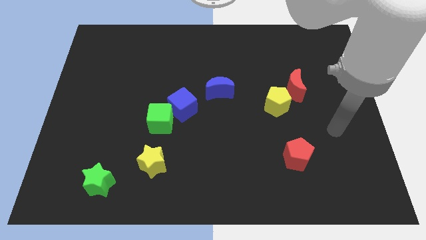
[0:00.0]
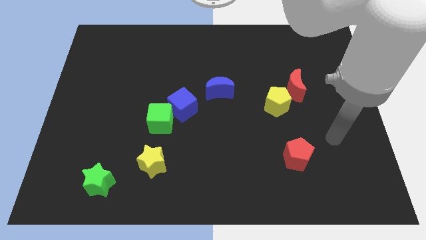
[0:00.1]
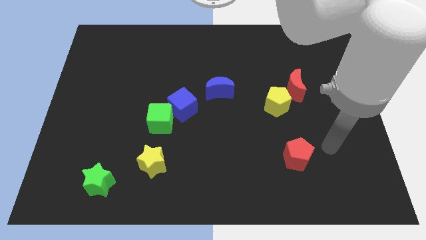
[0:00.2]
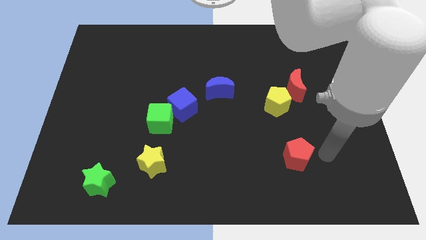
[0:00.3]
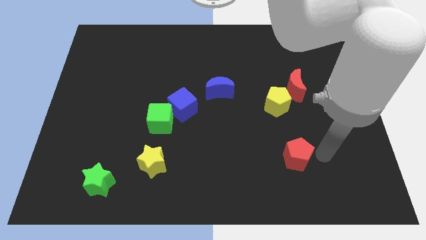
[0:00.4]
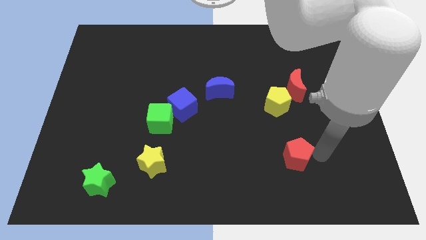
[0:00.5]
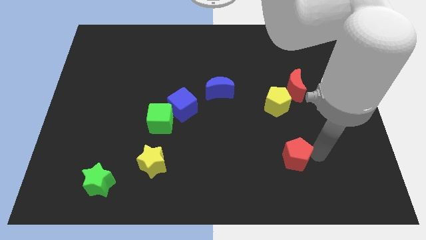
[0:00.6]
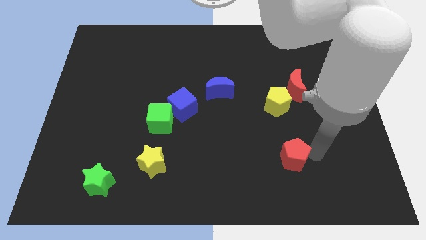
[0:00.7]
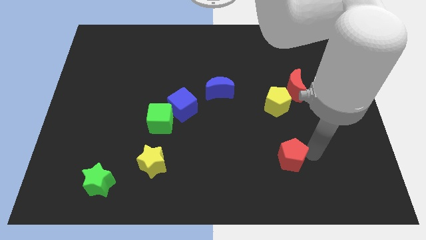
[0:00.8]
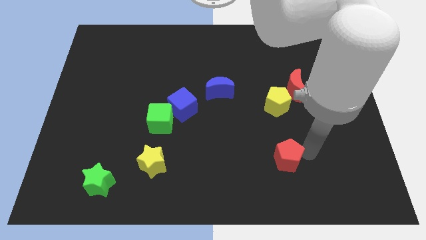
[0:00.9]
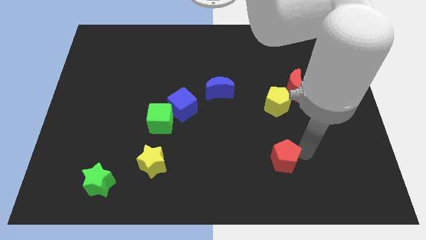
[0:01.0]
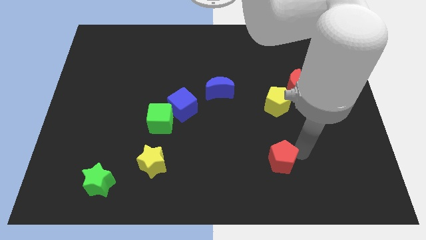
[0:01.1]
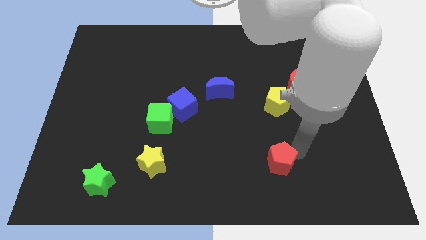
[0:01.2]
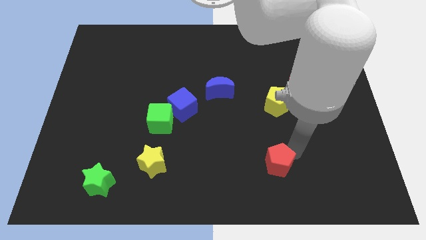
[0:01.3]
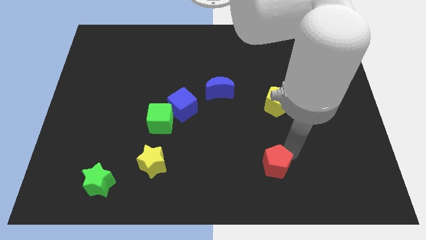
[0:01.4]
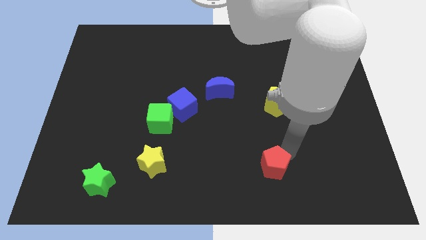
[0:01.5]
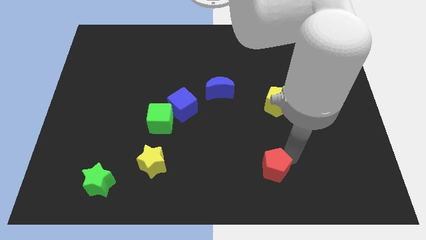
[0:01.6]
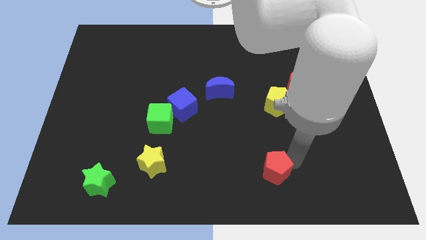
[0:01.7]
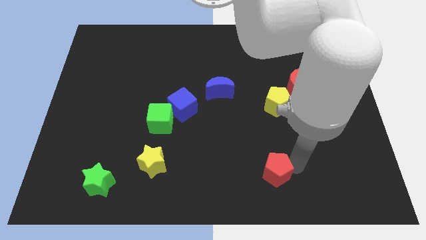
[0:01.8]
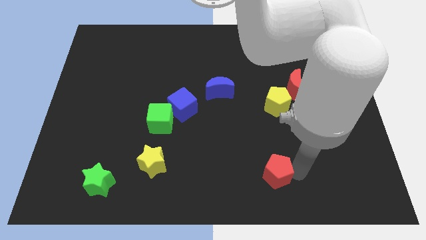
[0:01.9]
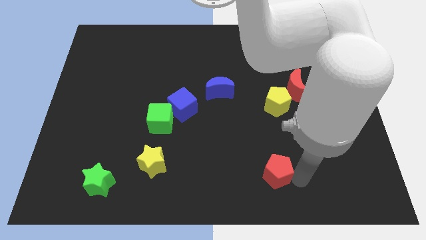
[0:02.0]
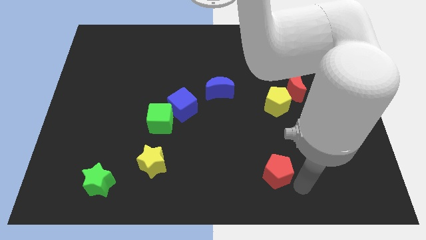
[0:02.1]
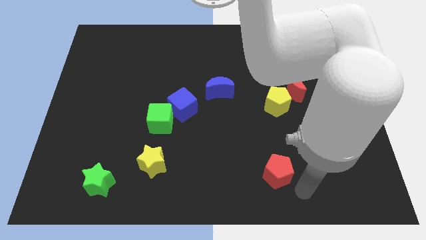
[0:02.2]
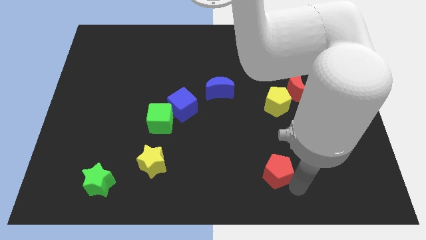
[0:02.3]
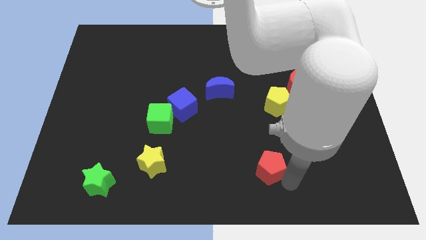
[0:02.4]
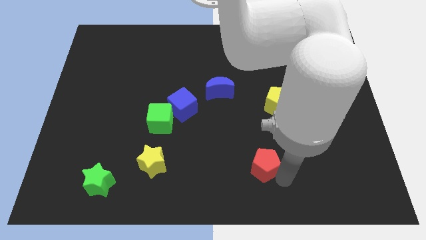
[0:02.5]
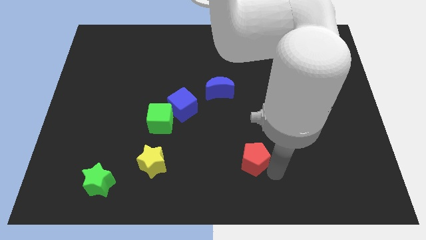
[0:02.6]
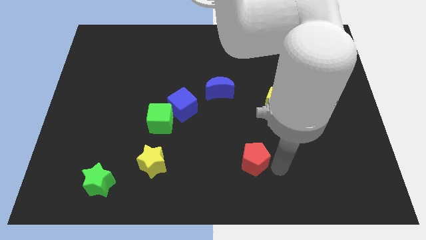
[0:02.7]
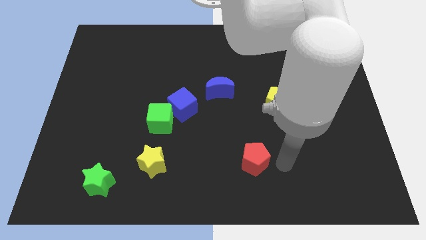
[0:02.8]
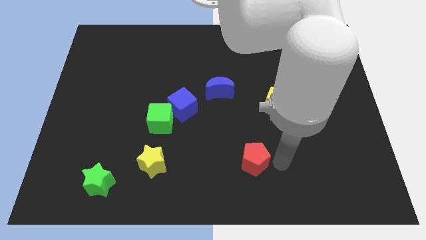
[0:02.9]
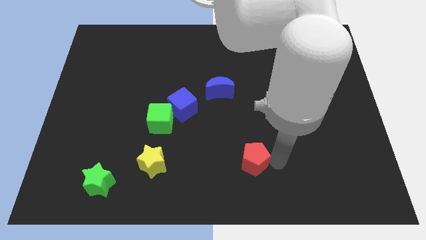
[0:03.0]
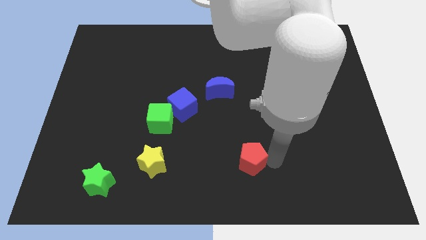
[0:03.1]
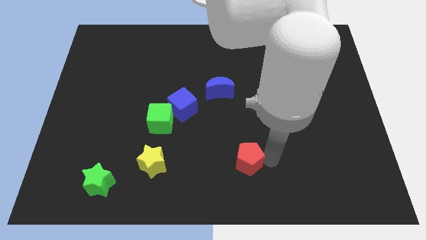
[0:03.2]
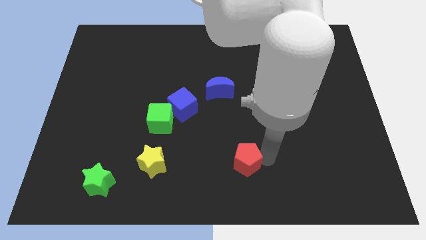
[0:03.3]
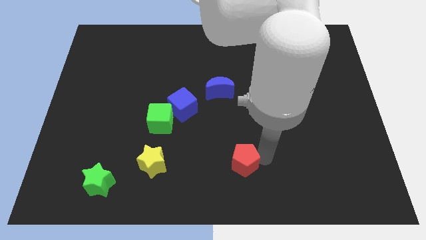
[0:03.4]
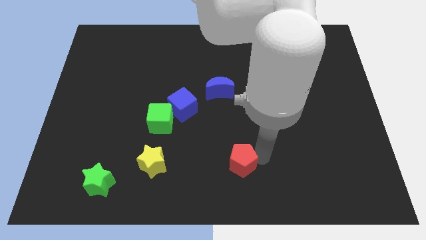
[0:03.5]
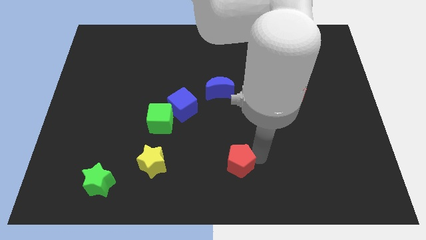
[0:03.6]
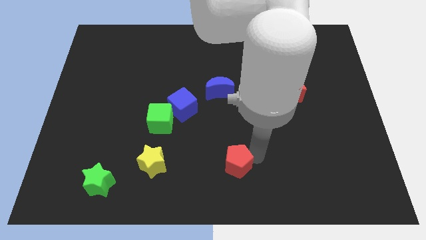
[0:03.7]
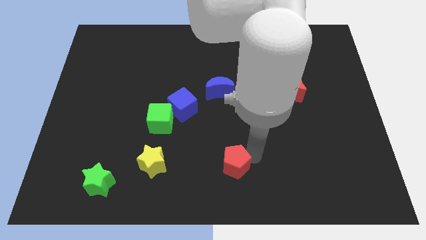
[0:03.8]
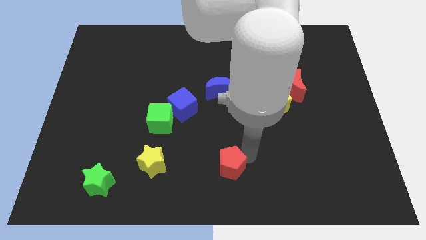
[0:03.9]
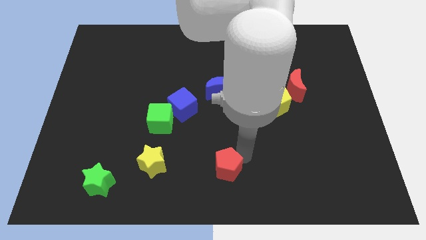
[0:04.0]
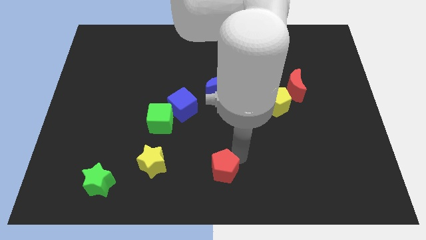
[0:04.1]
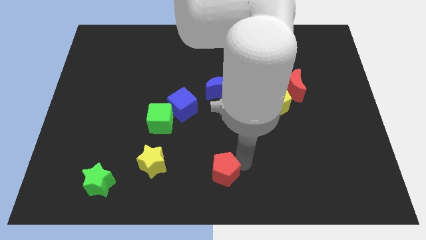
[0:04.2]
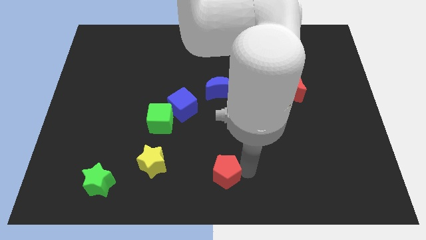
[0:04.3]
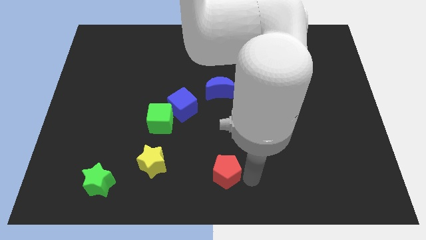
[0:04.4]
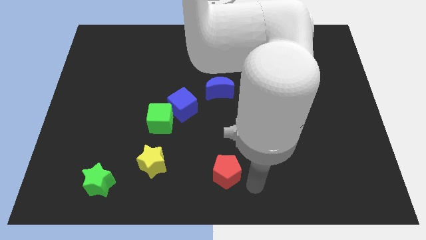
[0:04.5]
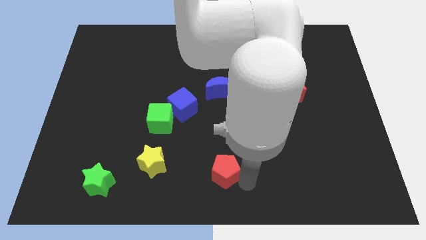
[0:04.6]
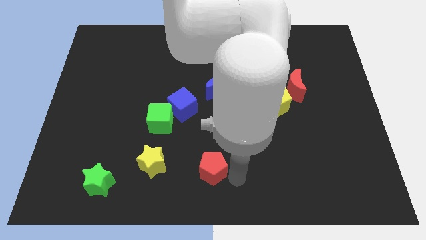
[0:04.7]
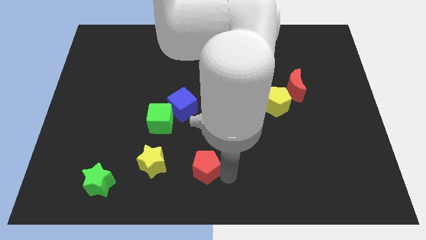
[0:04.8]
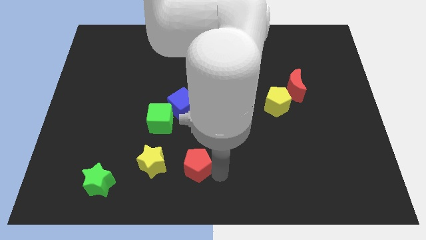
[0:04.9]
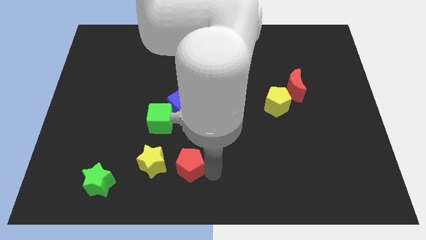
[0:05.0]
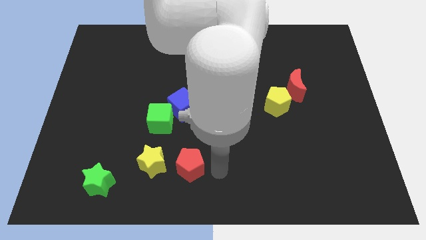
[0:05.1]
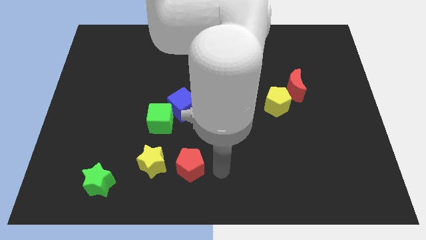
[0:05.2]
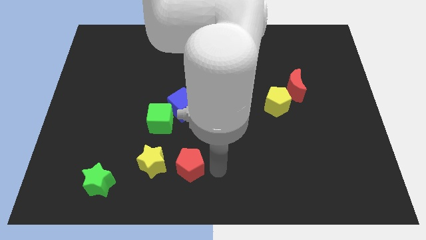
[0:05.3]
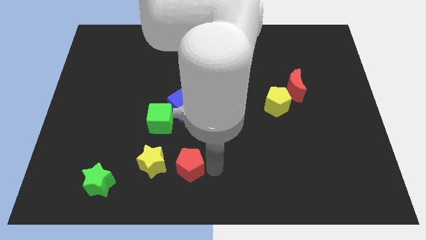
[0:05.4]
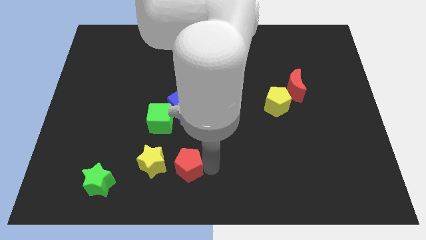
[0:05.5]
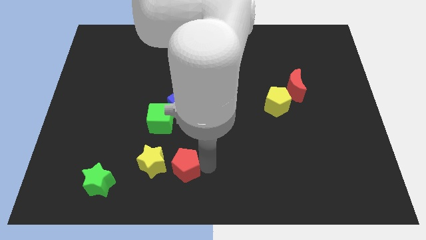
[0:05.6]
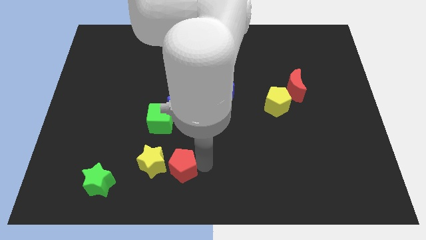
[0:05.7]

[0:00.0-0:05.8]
move the red pentagon next to the yellow star

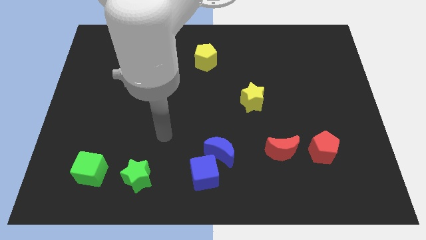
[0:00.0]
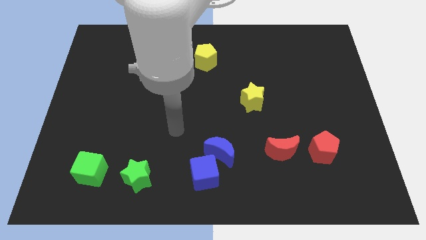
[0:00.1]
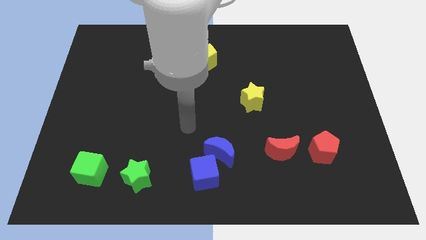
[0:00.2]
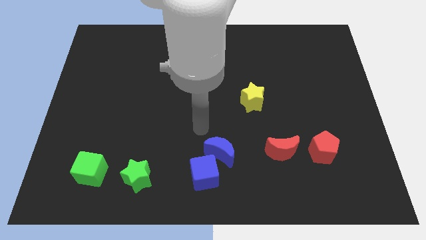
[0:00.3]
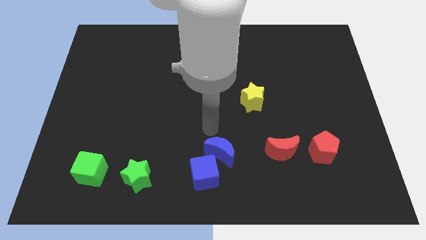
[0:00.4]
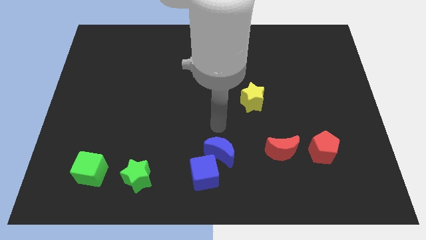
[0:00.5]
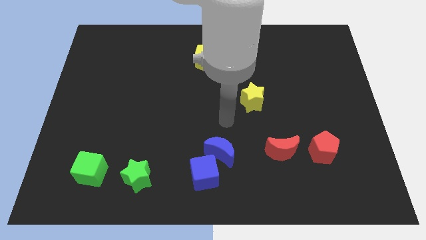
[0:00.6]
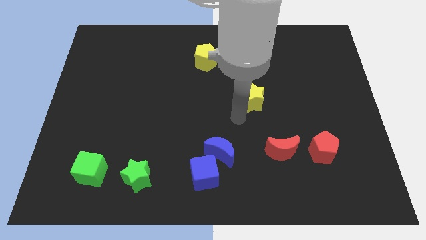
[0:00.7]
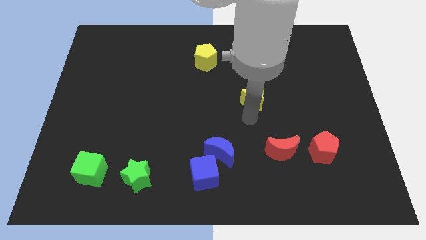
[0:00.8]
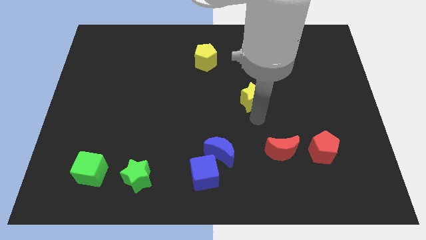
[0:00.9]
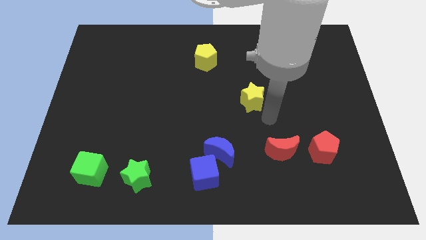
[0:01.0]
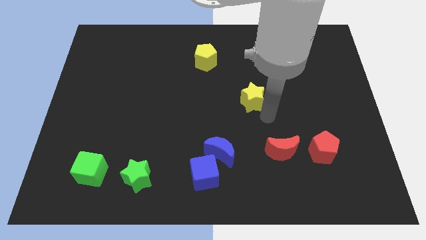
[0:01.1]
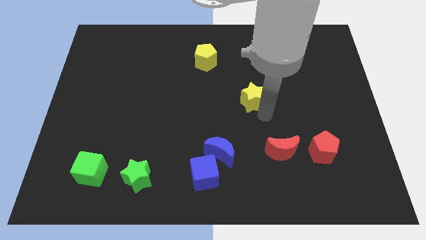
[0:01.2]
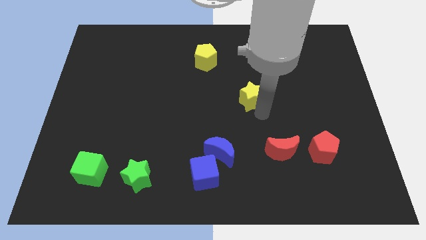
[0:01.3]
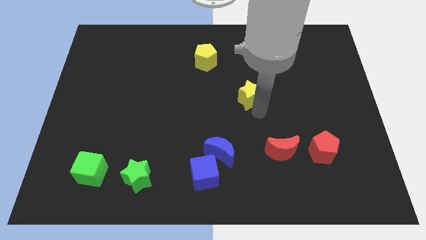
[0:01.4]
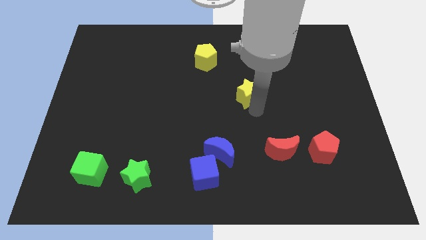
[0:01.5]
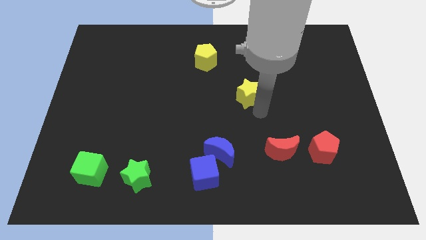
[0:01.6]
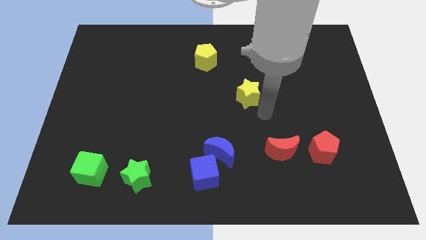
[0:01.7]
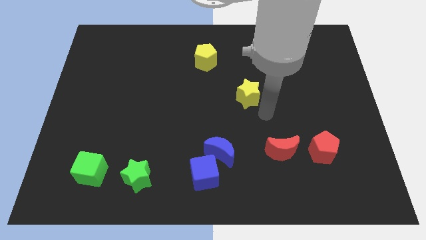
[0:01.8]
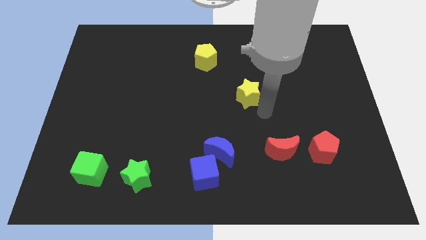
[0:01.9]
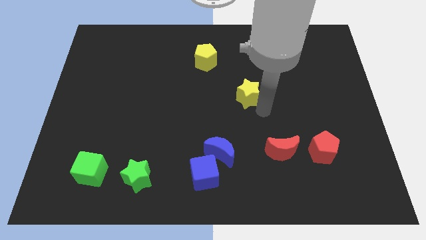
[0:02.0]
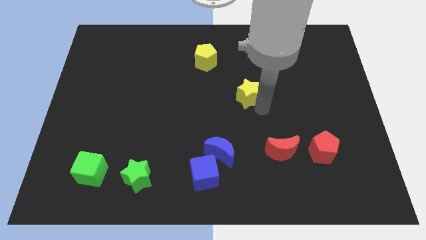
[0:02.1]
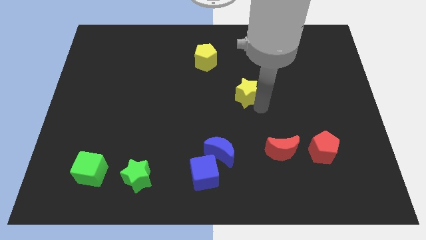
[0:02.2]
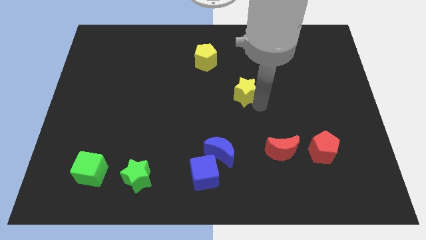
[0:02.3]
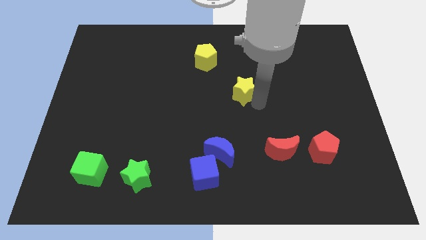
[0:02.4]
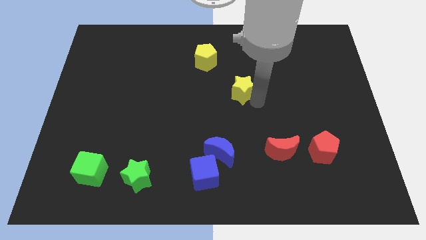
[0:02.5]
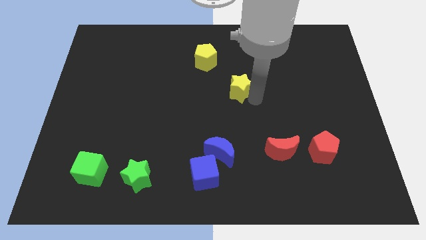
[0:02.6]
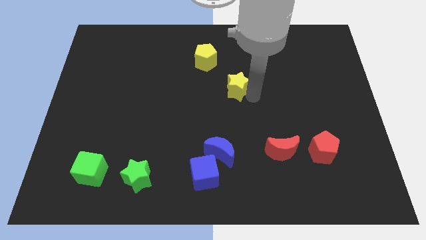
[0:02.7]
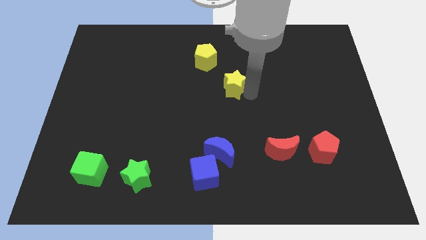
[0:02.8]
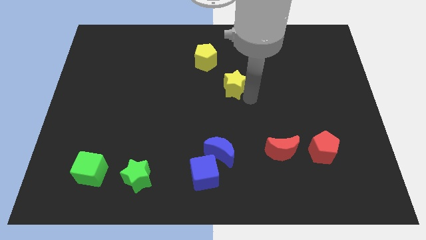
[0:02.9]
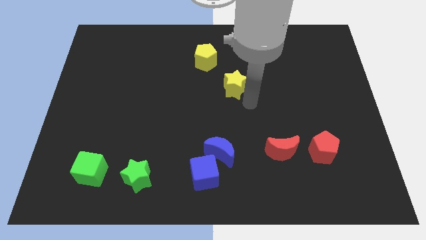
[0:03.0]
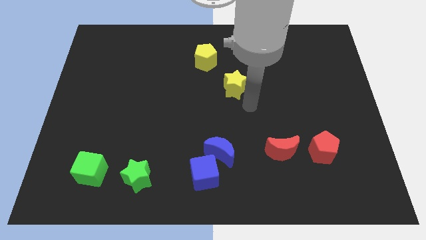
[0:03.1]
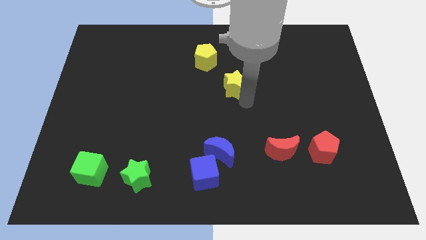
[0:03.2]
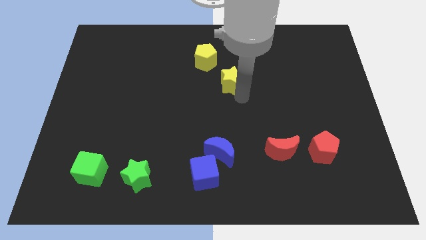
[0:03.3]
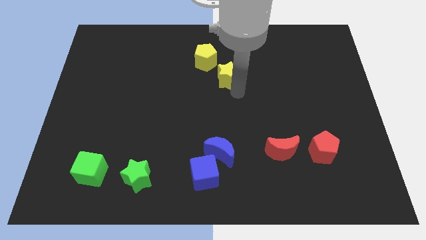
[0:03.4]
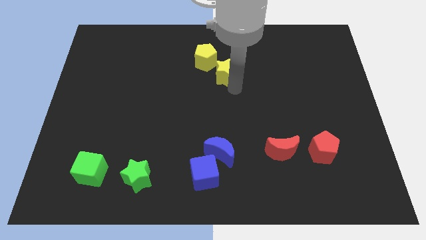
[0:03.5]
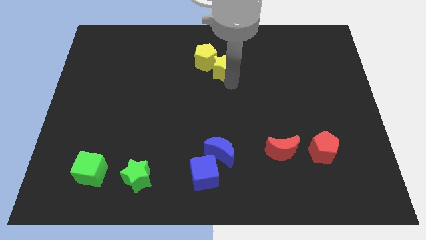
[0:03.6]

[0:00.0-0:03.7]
slide the yellow star to the yellow pentagon
